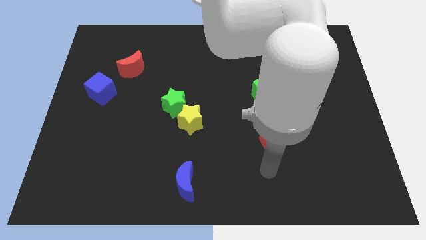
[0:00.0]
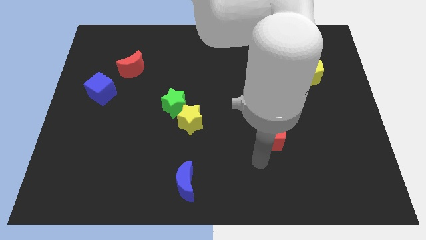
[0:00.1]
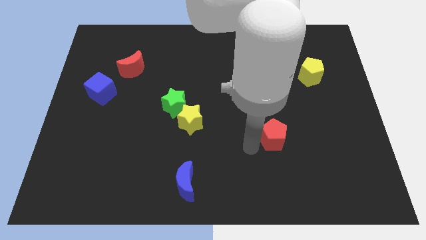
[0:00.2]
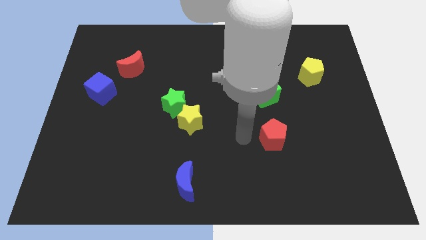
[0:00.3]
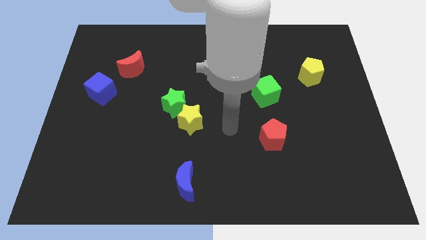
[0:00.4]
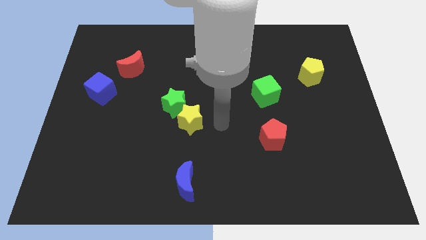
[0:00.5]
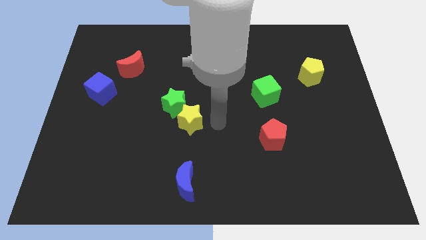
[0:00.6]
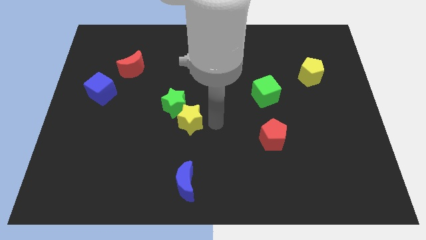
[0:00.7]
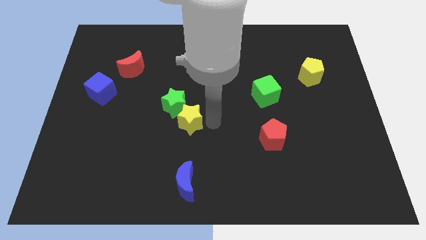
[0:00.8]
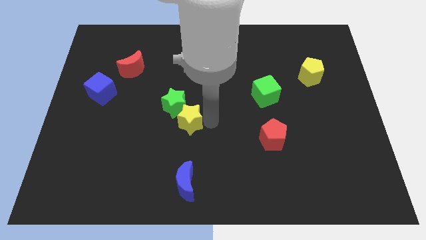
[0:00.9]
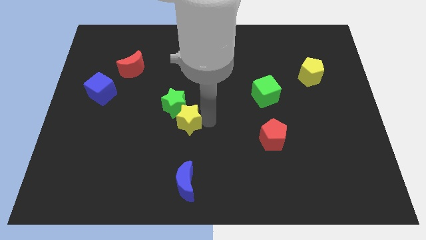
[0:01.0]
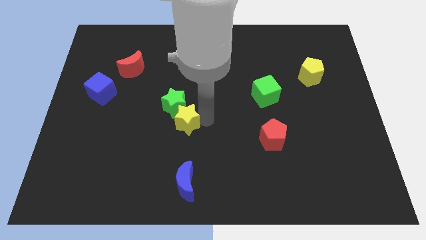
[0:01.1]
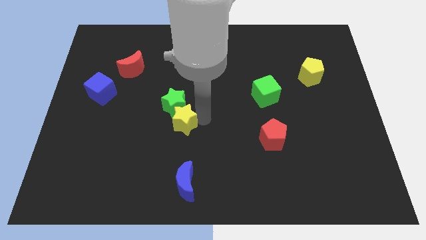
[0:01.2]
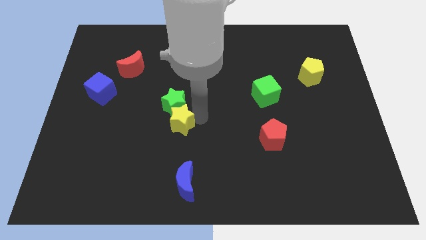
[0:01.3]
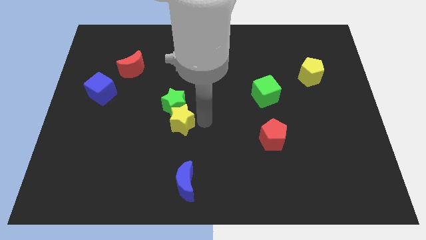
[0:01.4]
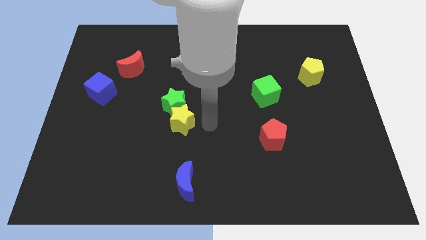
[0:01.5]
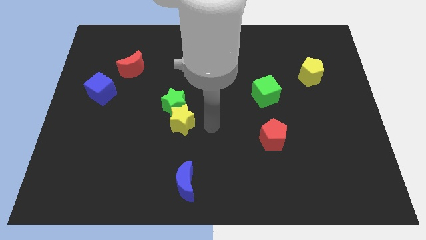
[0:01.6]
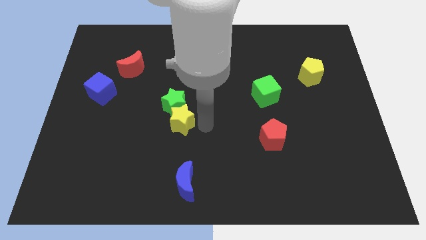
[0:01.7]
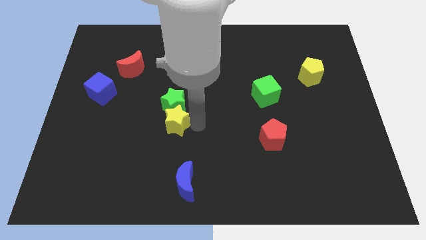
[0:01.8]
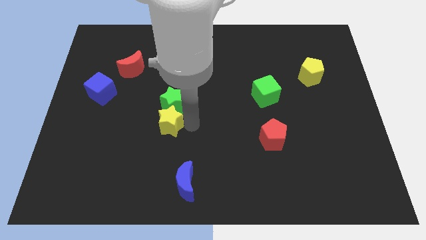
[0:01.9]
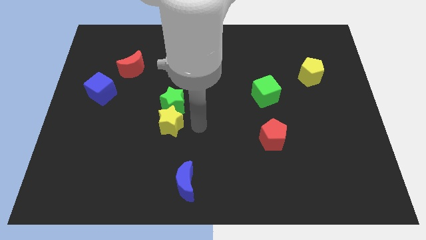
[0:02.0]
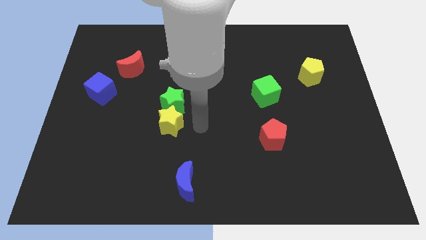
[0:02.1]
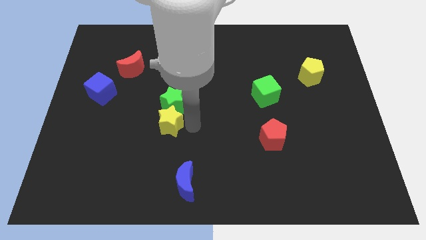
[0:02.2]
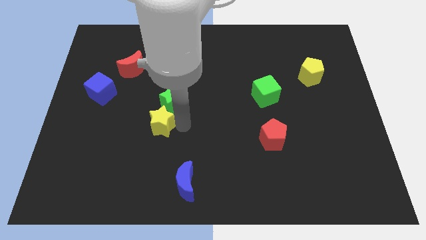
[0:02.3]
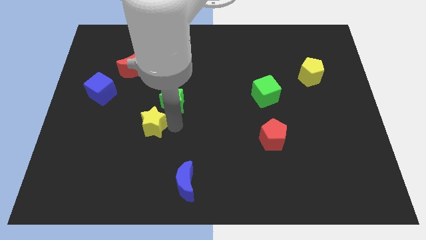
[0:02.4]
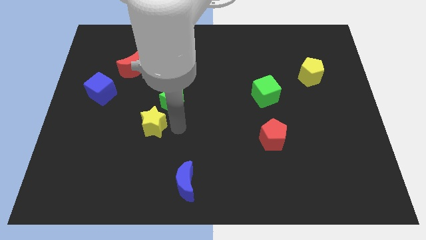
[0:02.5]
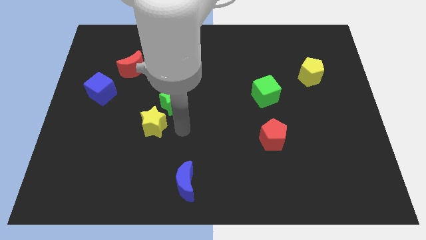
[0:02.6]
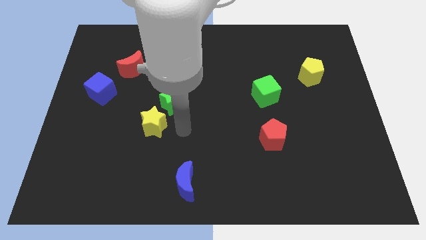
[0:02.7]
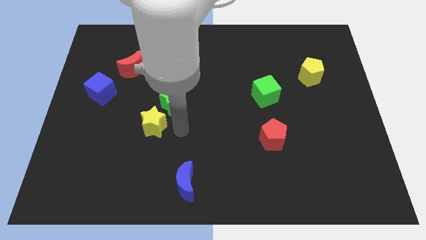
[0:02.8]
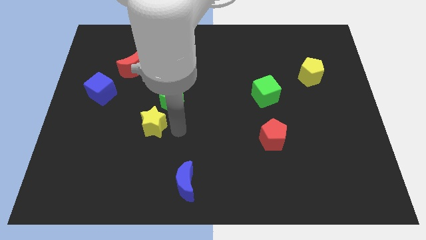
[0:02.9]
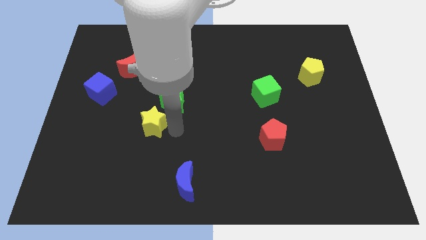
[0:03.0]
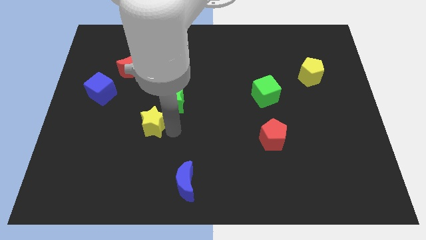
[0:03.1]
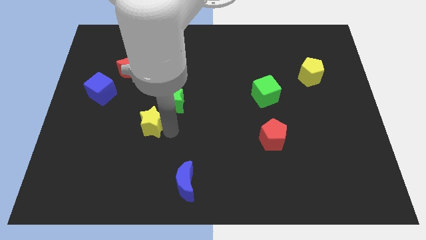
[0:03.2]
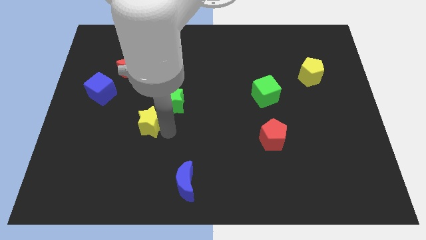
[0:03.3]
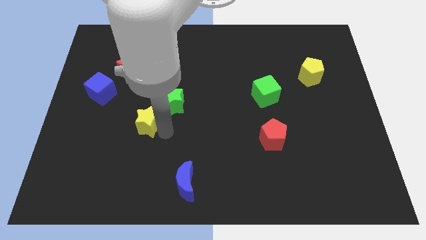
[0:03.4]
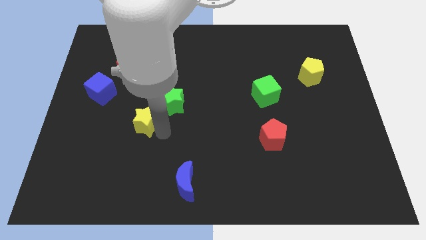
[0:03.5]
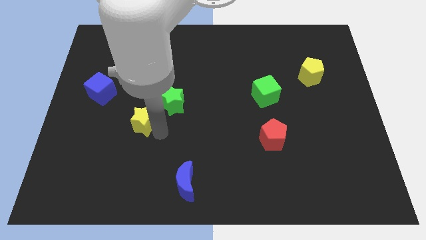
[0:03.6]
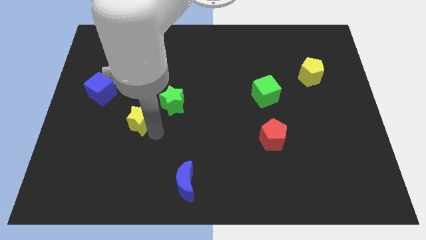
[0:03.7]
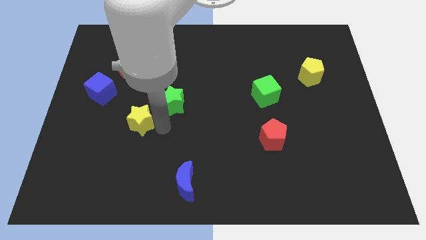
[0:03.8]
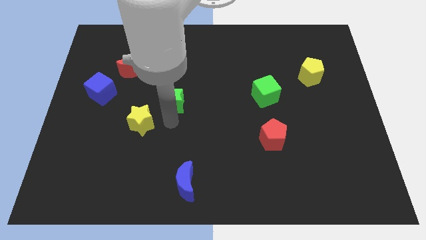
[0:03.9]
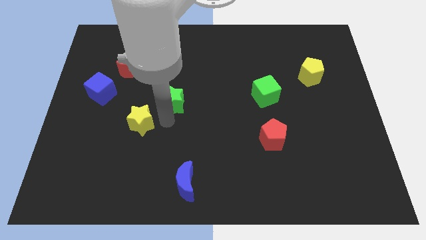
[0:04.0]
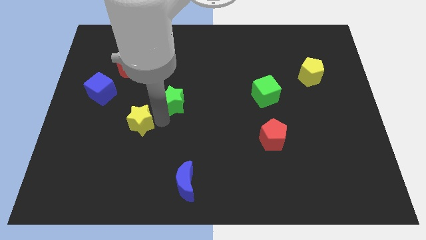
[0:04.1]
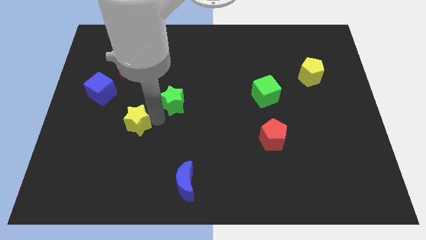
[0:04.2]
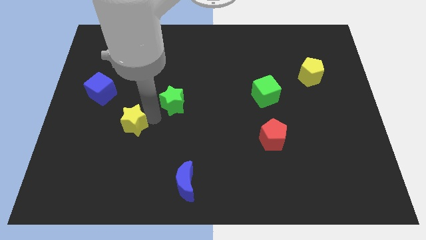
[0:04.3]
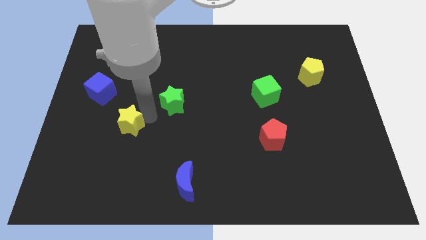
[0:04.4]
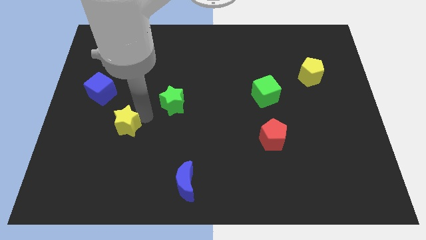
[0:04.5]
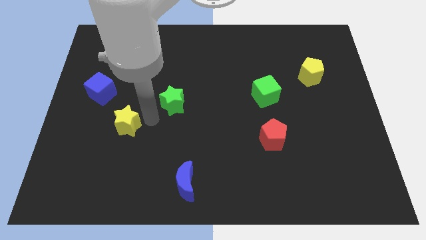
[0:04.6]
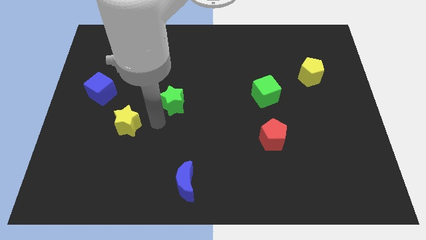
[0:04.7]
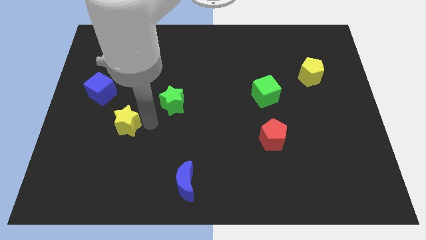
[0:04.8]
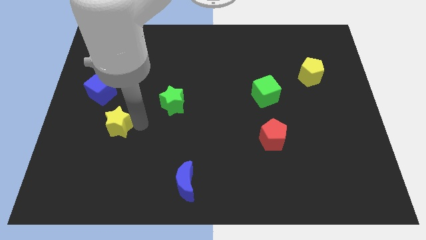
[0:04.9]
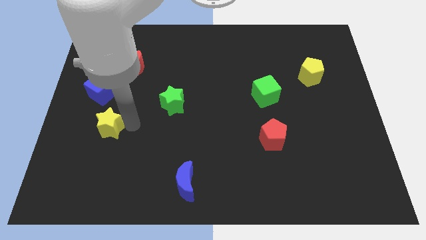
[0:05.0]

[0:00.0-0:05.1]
move the yellow star below the blue cube

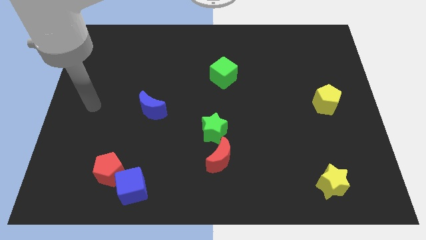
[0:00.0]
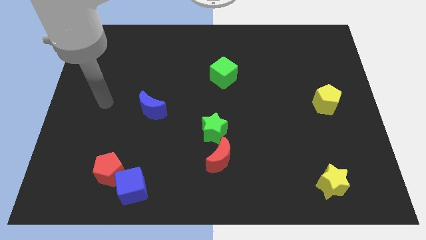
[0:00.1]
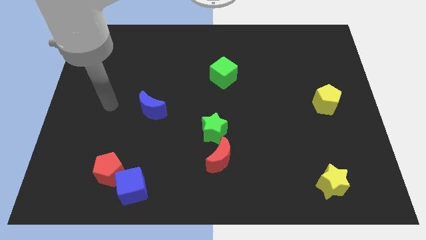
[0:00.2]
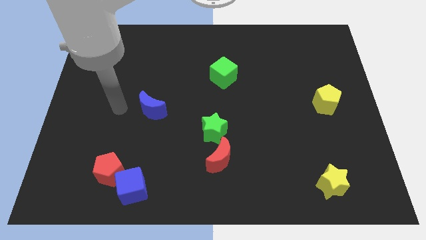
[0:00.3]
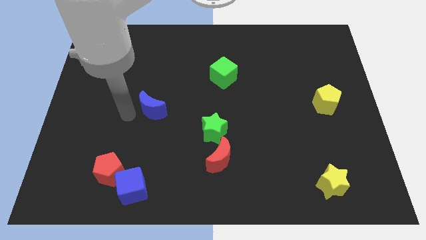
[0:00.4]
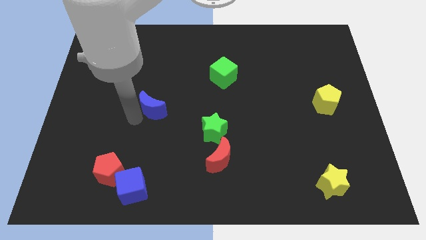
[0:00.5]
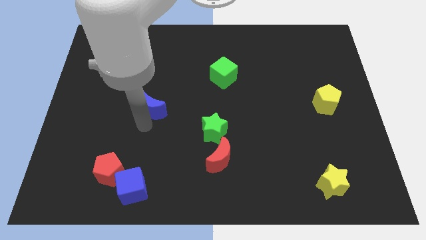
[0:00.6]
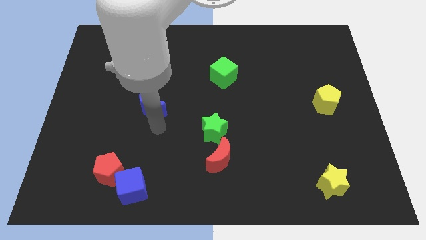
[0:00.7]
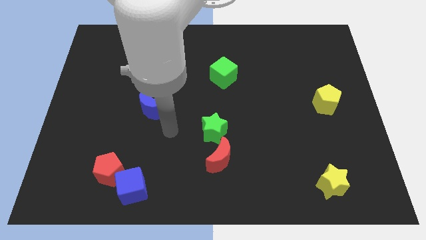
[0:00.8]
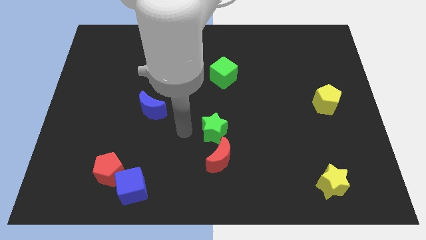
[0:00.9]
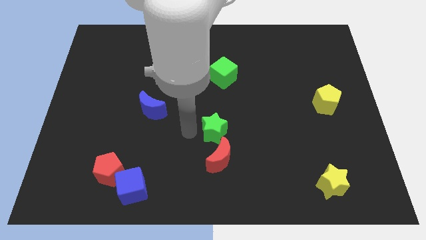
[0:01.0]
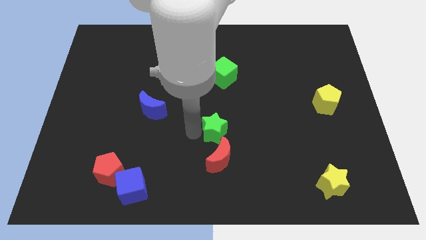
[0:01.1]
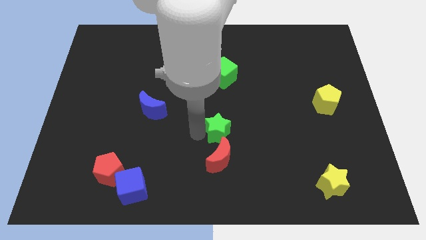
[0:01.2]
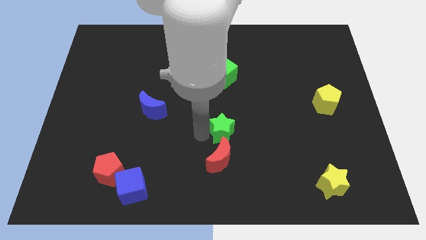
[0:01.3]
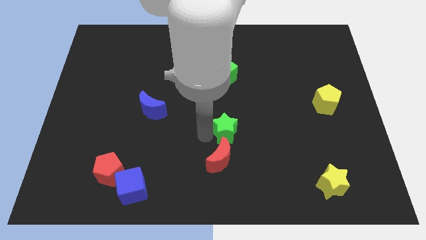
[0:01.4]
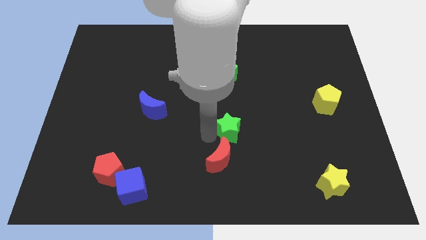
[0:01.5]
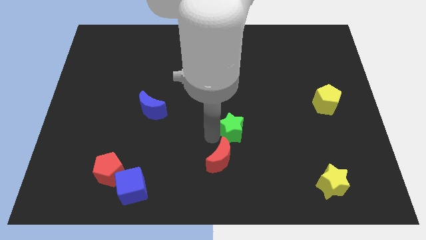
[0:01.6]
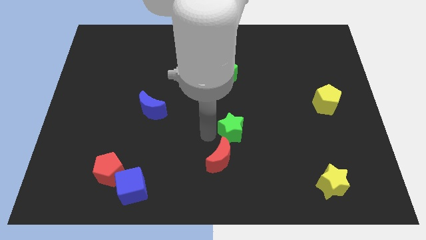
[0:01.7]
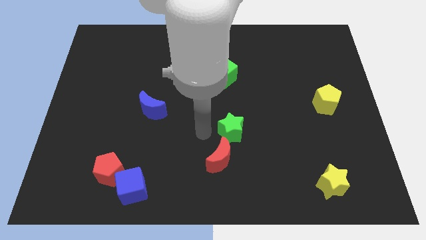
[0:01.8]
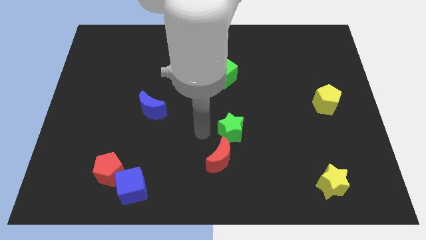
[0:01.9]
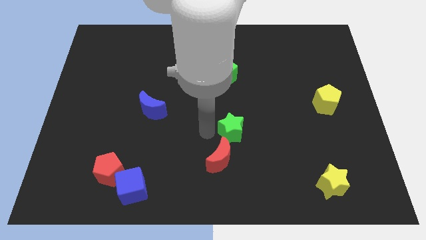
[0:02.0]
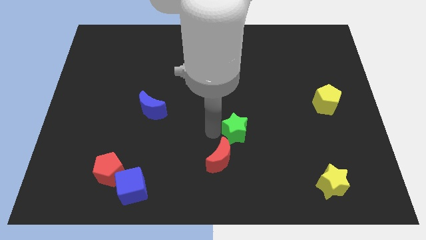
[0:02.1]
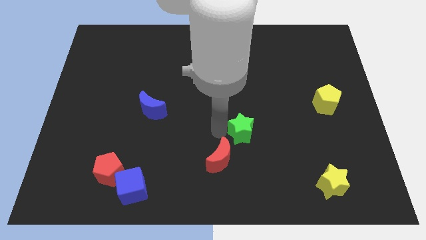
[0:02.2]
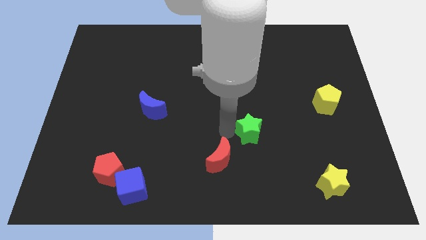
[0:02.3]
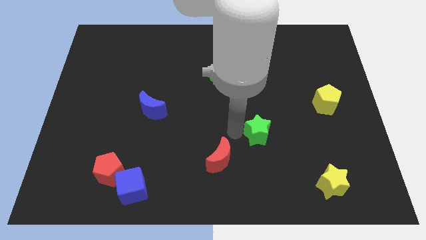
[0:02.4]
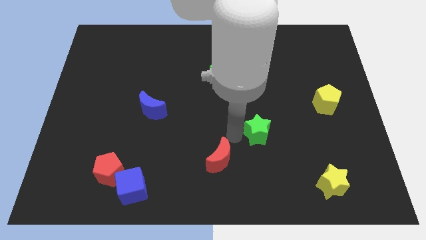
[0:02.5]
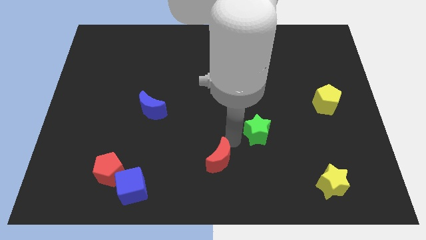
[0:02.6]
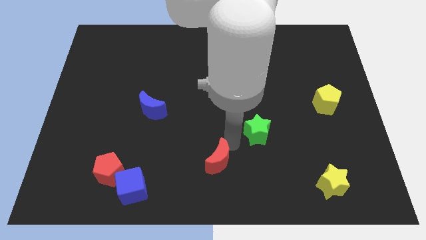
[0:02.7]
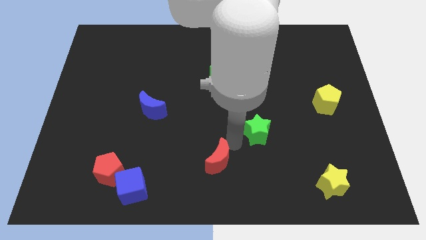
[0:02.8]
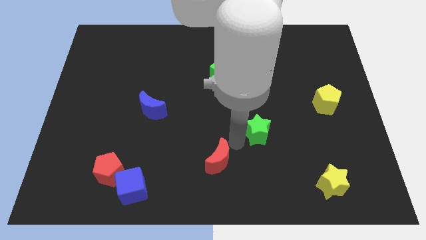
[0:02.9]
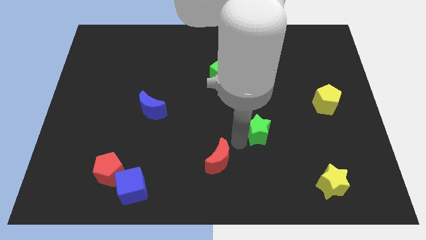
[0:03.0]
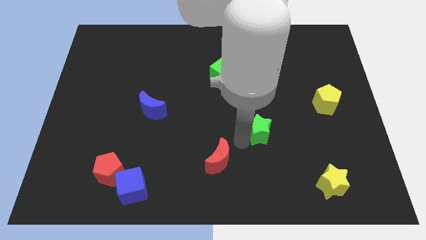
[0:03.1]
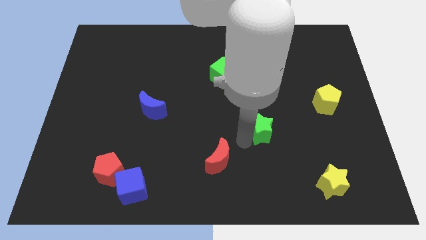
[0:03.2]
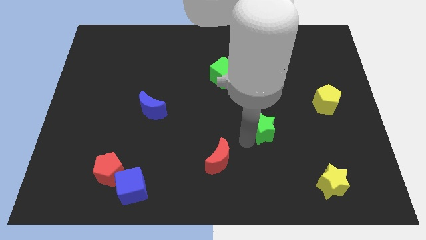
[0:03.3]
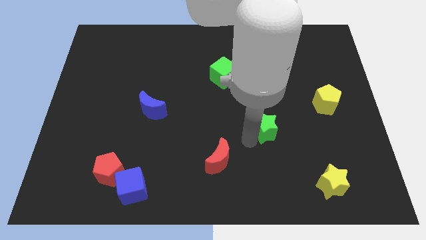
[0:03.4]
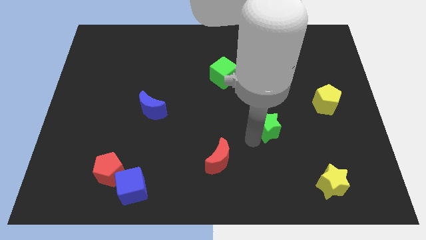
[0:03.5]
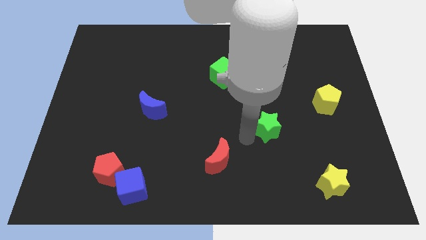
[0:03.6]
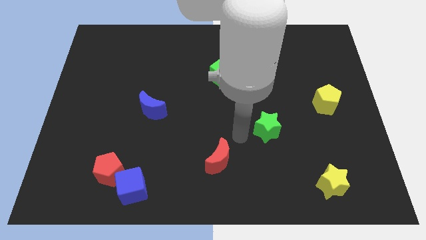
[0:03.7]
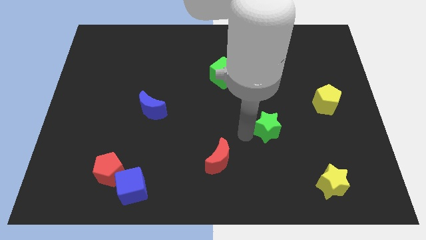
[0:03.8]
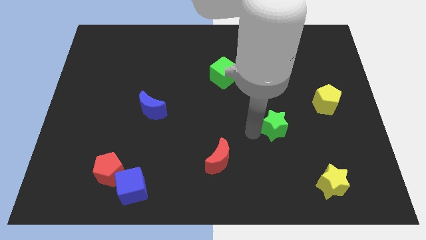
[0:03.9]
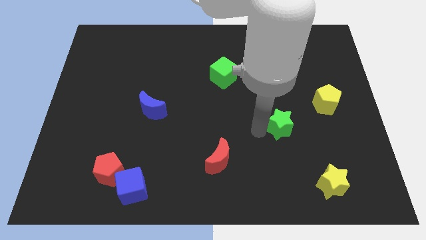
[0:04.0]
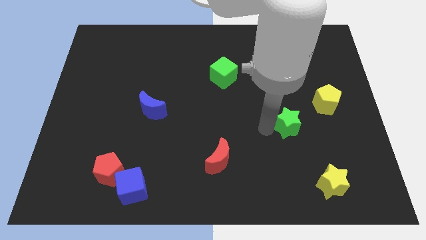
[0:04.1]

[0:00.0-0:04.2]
move the green star to the bottom left of the yellow pentagon
